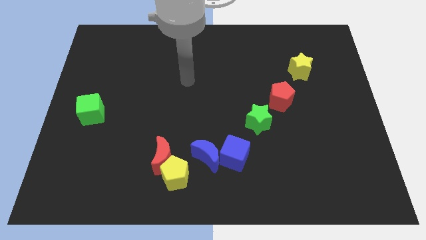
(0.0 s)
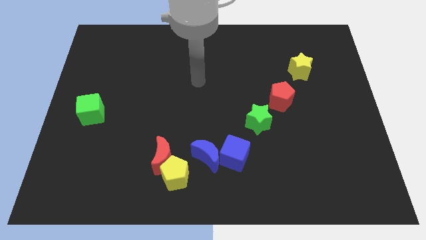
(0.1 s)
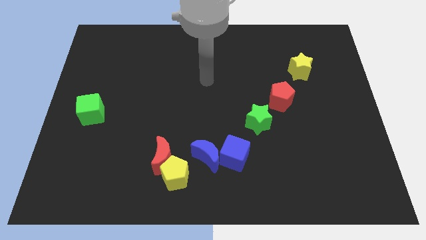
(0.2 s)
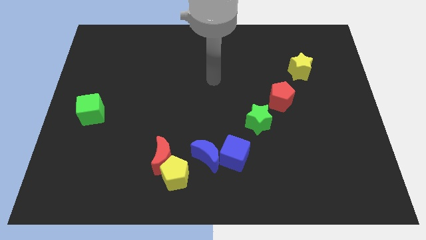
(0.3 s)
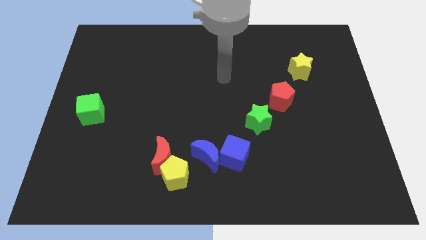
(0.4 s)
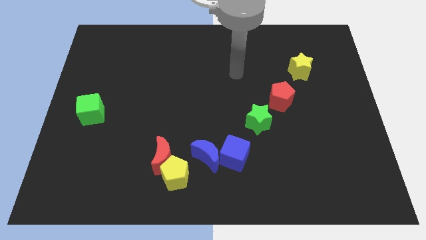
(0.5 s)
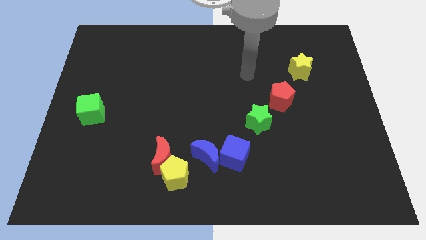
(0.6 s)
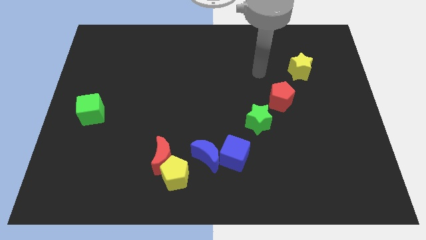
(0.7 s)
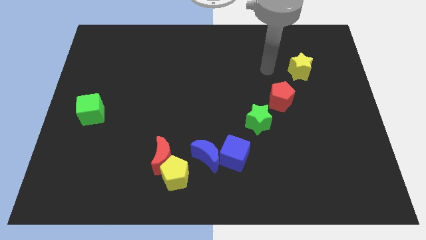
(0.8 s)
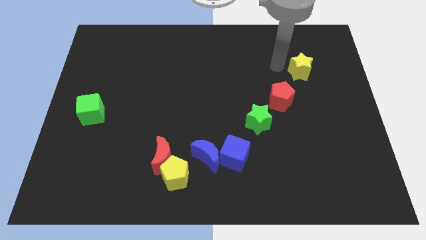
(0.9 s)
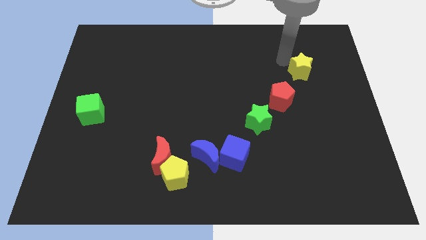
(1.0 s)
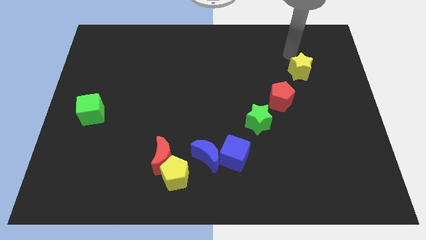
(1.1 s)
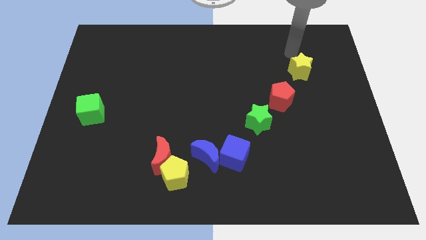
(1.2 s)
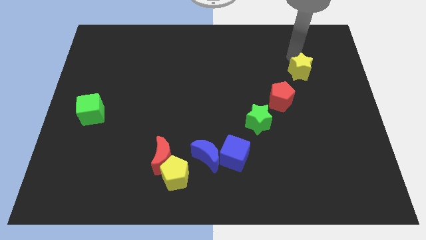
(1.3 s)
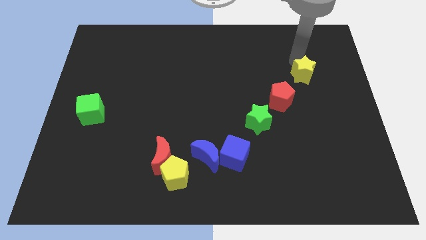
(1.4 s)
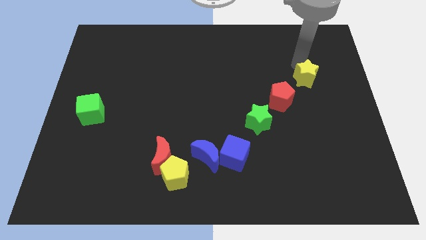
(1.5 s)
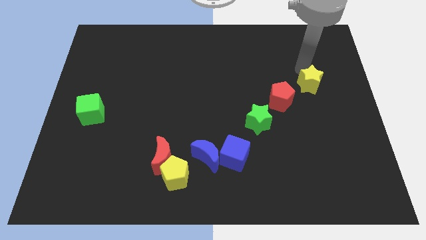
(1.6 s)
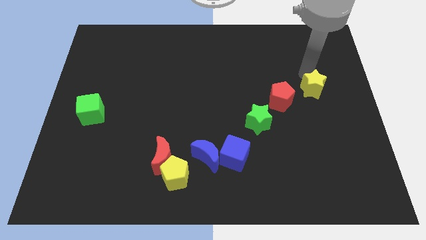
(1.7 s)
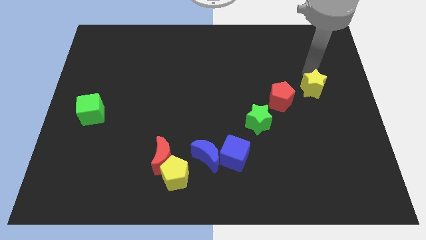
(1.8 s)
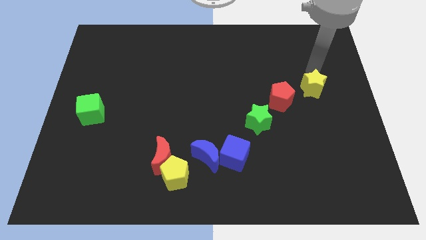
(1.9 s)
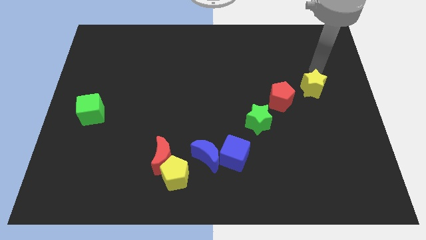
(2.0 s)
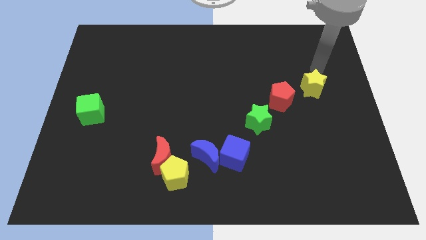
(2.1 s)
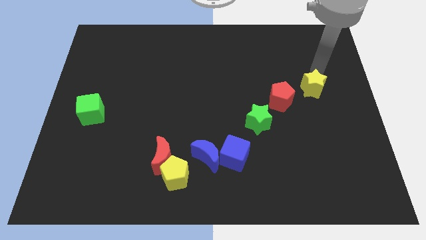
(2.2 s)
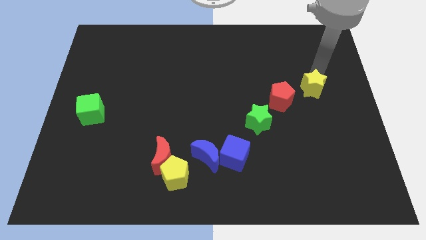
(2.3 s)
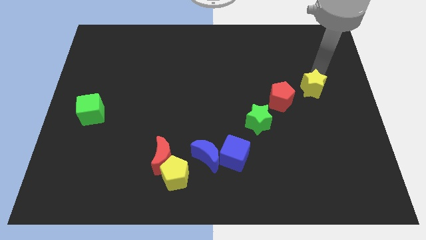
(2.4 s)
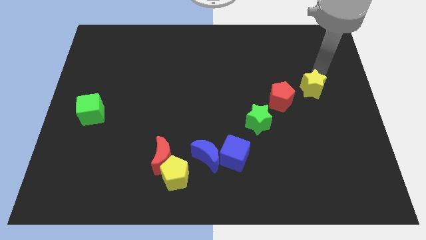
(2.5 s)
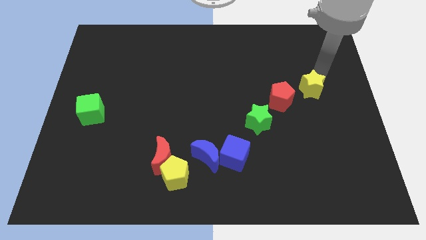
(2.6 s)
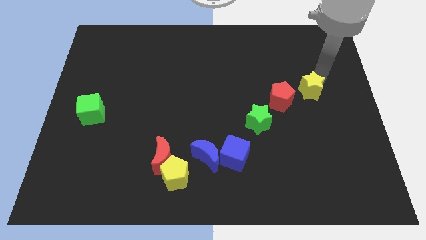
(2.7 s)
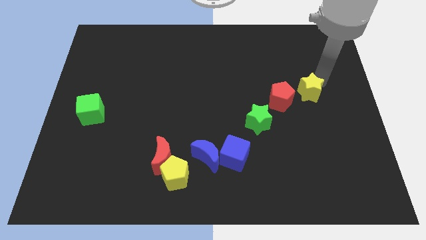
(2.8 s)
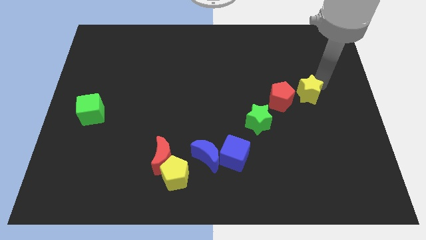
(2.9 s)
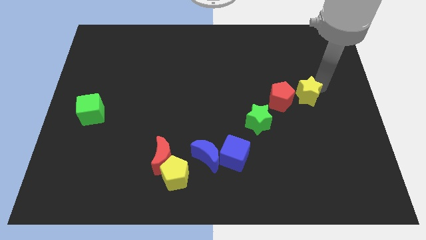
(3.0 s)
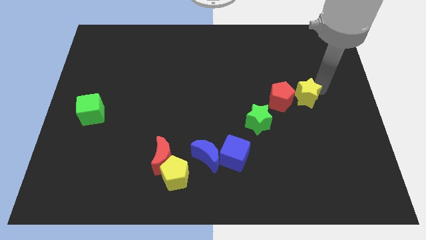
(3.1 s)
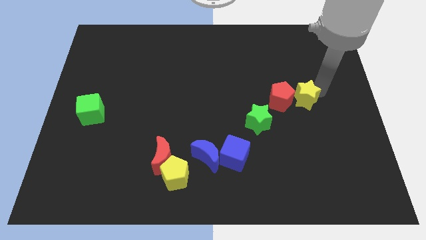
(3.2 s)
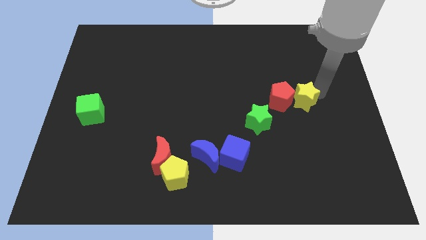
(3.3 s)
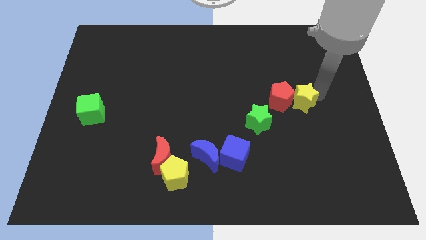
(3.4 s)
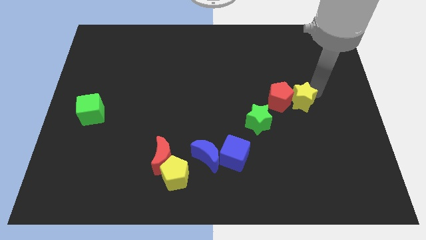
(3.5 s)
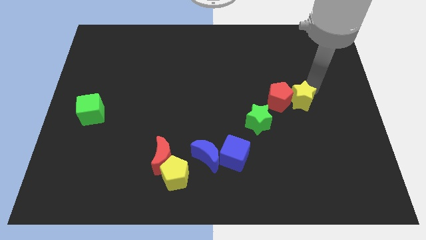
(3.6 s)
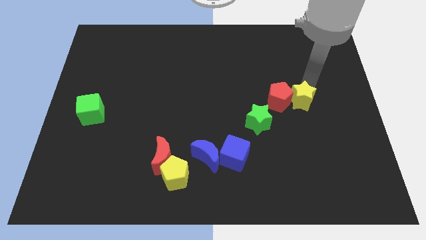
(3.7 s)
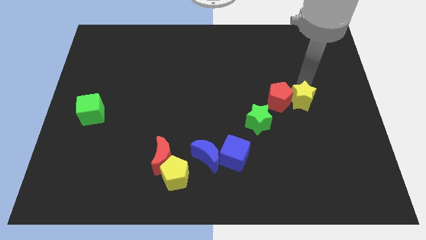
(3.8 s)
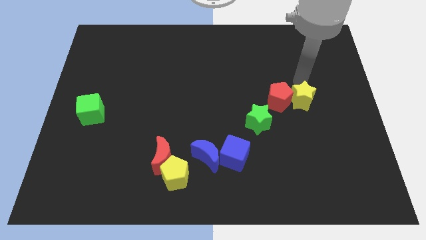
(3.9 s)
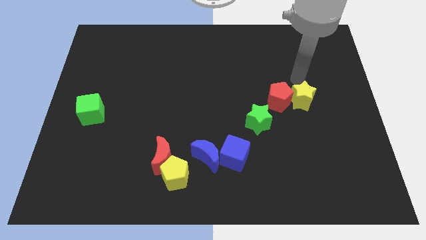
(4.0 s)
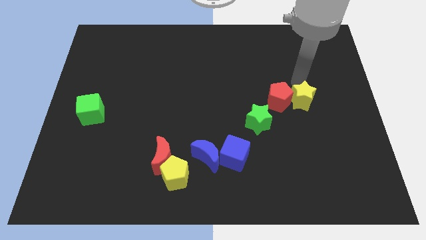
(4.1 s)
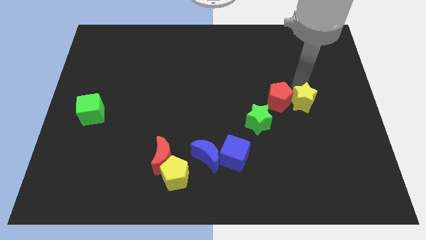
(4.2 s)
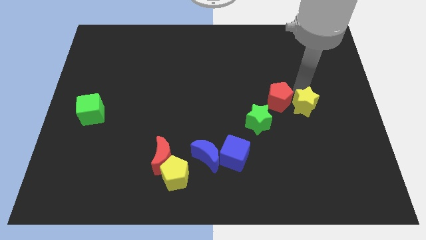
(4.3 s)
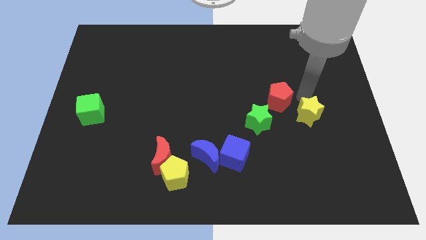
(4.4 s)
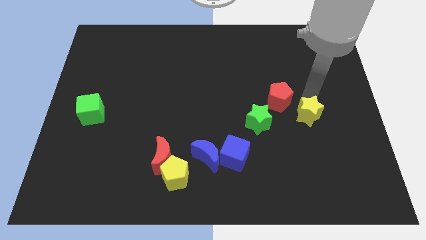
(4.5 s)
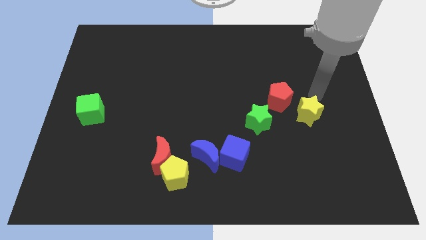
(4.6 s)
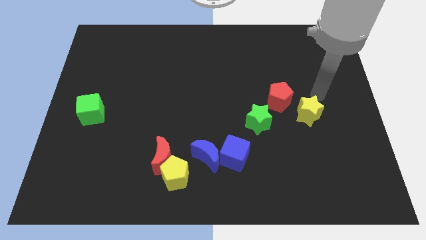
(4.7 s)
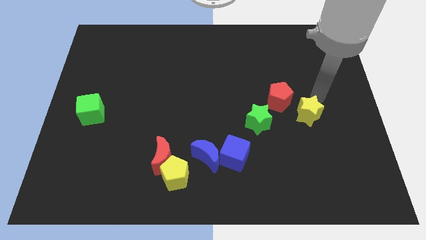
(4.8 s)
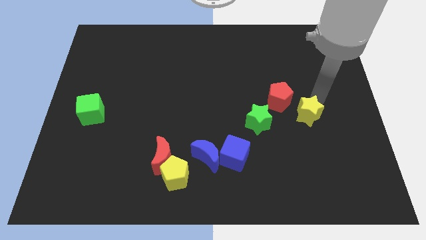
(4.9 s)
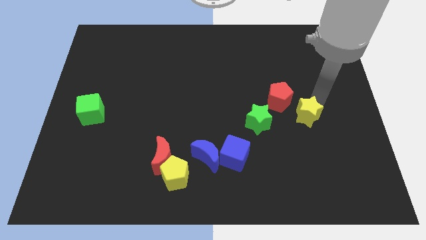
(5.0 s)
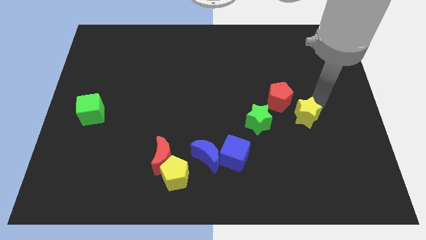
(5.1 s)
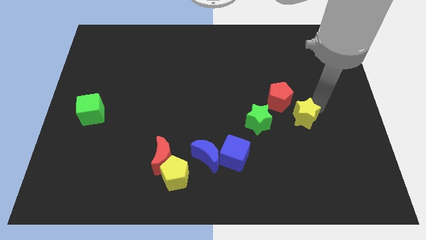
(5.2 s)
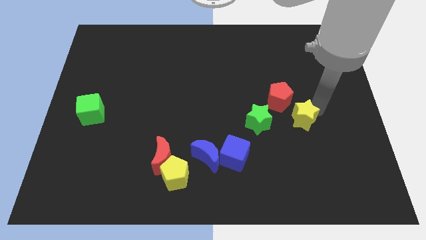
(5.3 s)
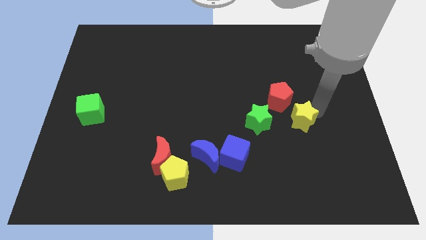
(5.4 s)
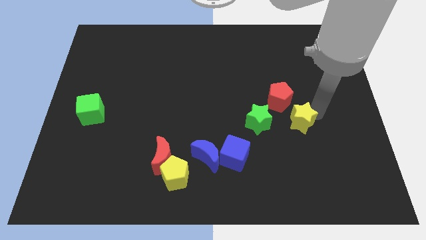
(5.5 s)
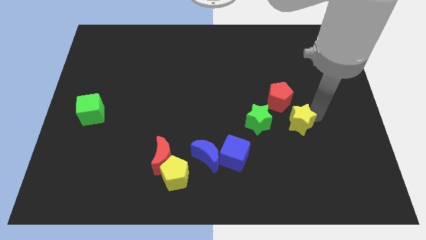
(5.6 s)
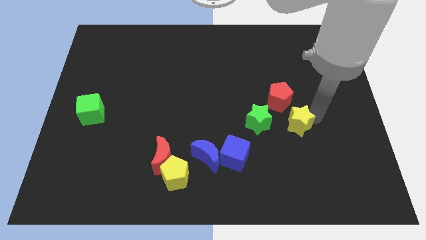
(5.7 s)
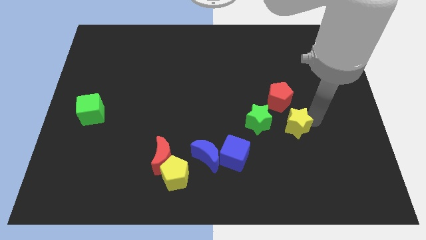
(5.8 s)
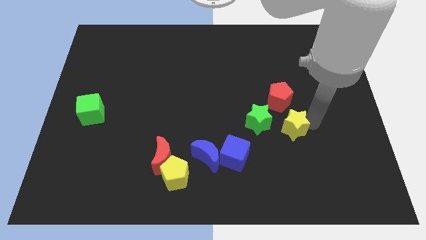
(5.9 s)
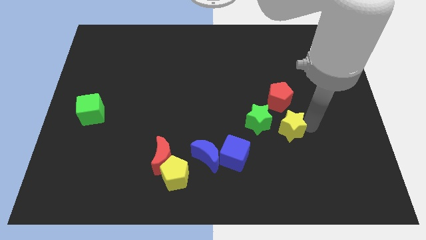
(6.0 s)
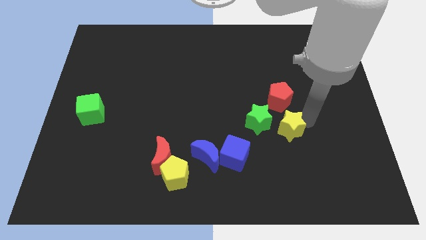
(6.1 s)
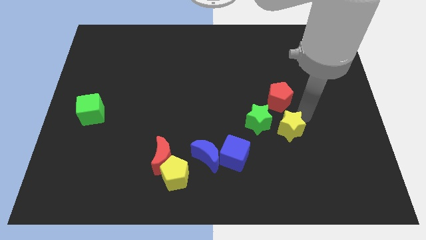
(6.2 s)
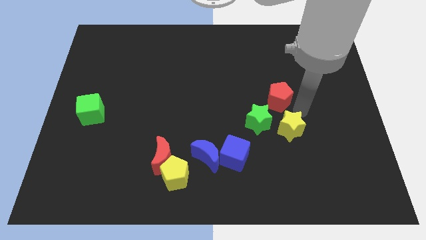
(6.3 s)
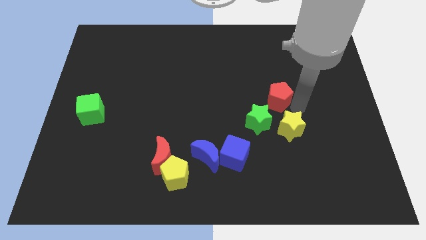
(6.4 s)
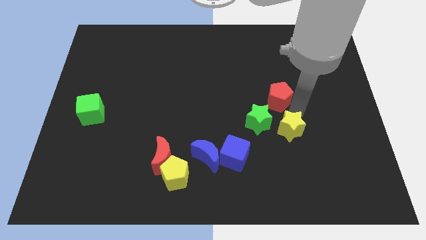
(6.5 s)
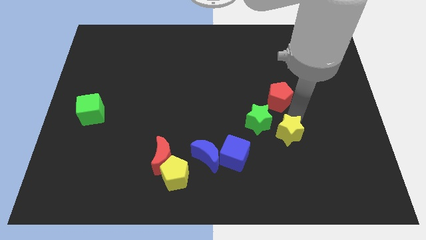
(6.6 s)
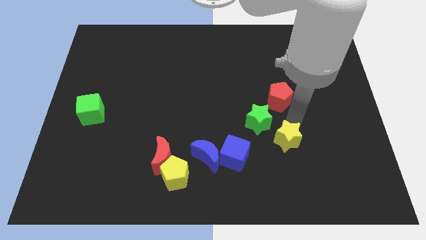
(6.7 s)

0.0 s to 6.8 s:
put the yellow star just right of the blue cube

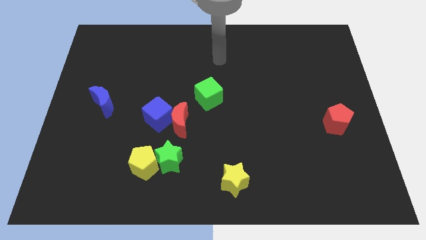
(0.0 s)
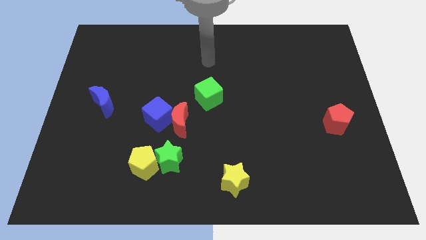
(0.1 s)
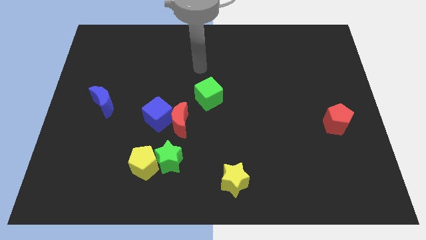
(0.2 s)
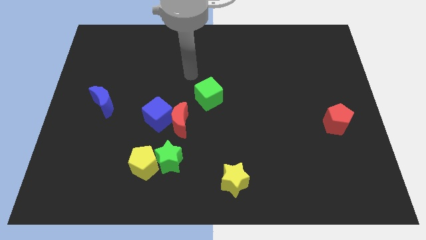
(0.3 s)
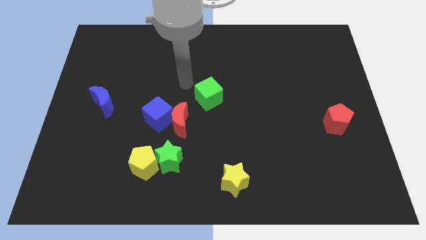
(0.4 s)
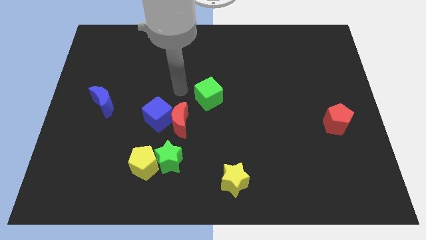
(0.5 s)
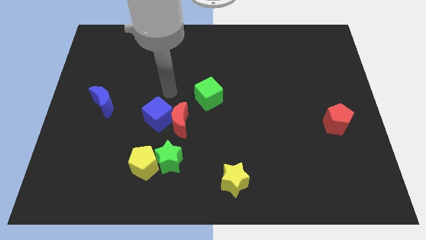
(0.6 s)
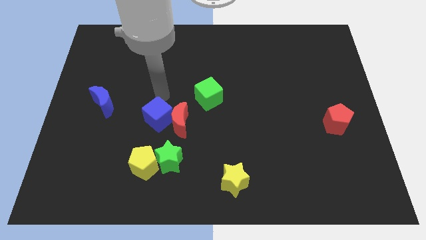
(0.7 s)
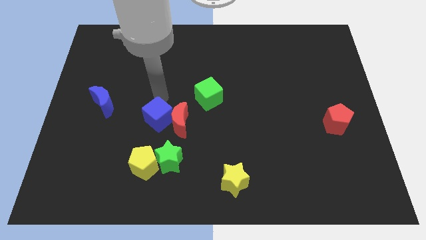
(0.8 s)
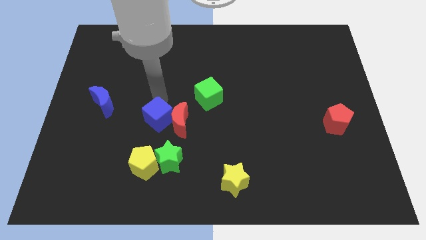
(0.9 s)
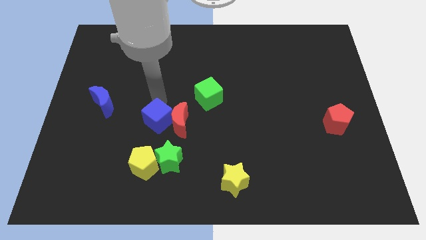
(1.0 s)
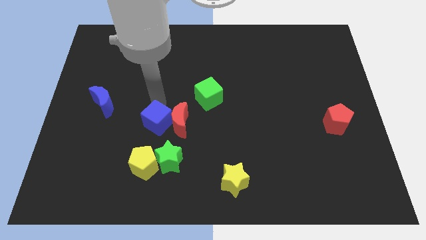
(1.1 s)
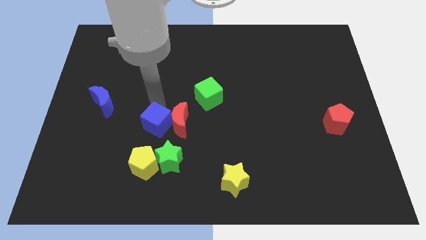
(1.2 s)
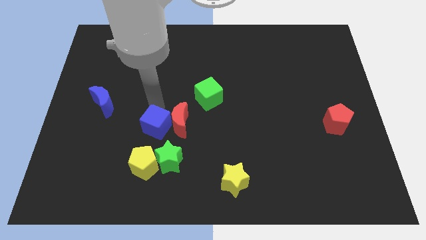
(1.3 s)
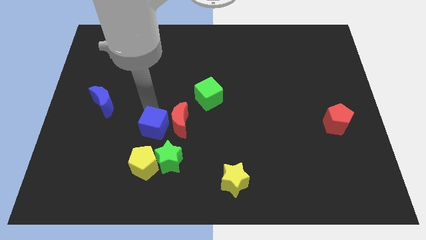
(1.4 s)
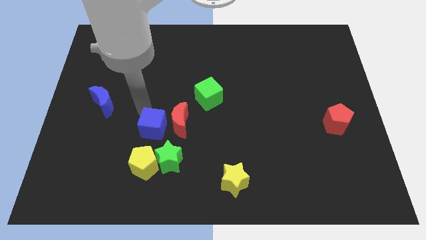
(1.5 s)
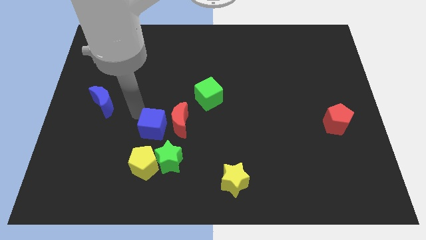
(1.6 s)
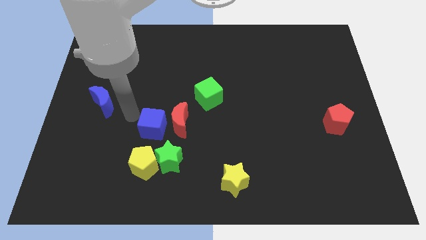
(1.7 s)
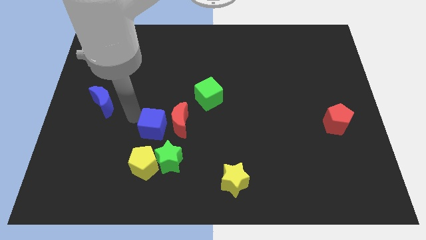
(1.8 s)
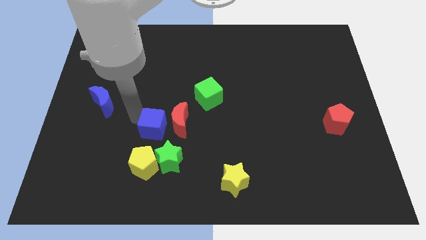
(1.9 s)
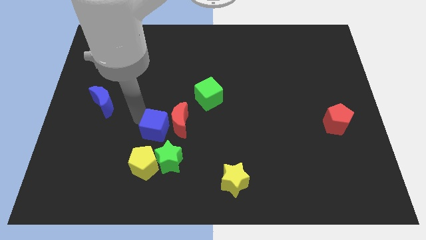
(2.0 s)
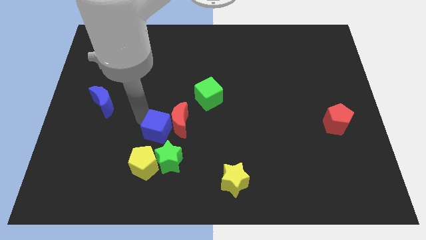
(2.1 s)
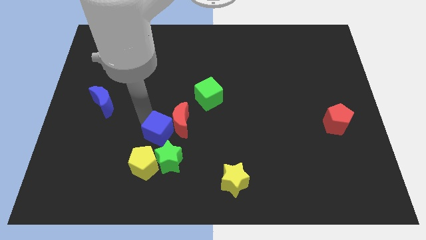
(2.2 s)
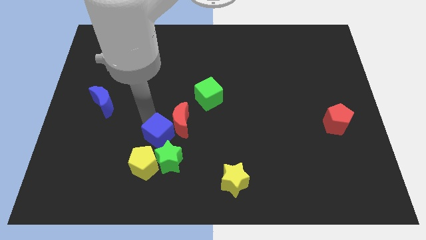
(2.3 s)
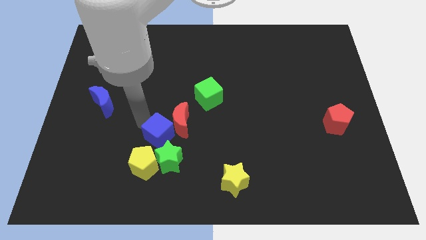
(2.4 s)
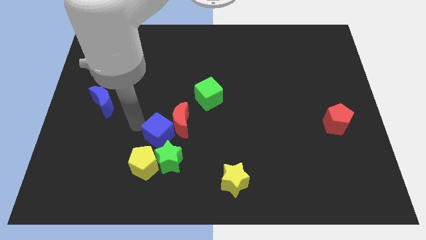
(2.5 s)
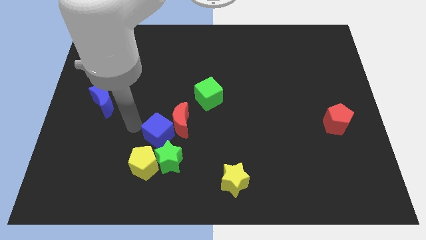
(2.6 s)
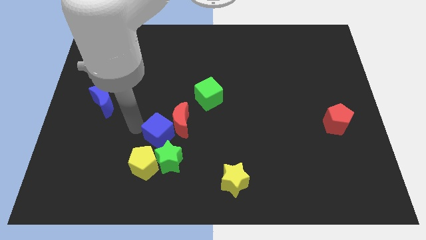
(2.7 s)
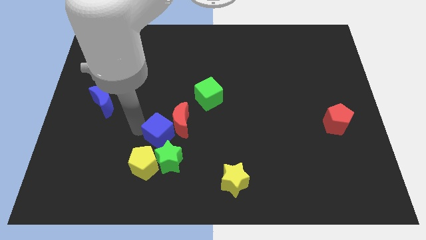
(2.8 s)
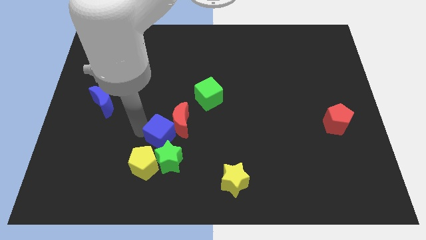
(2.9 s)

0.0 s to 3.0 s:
slide the blue cube to the bottom side of the red moon
